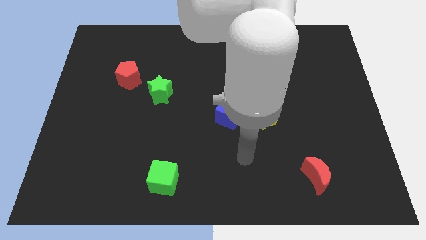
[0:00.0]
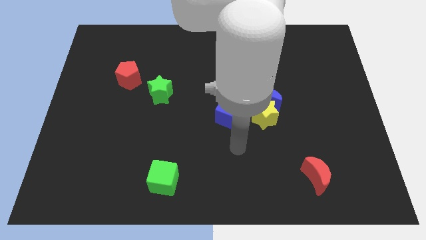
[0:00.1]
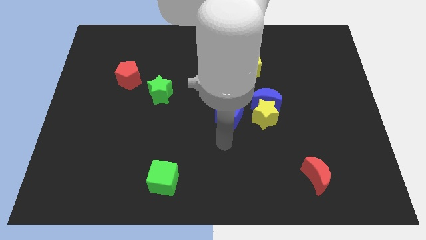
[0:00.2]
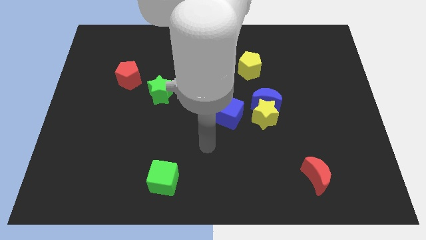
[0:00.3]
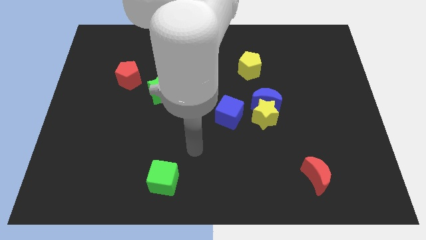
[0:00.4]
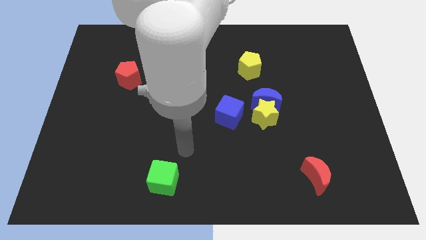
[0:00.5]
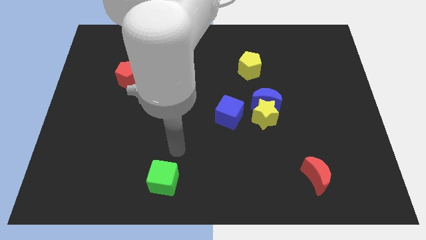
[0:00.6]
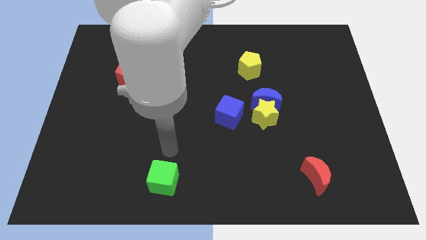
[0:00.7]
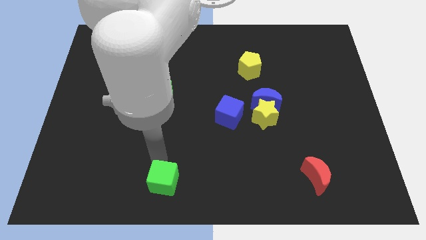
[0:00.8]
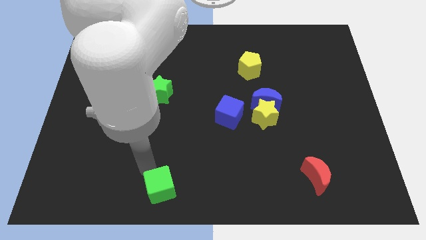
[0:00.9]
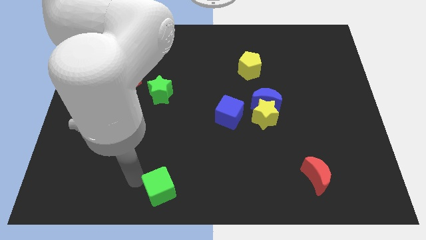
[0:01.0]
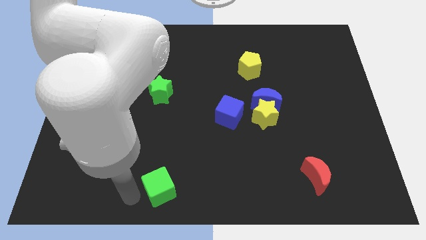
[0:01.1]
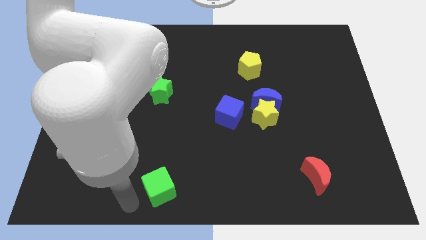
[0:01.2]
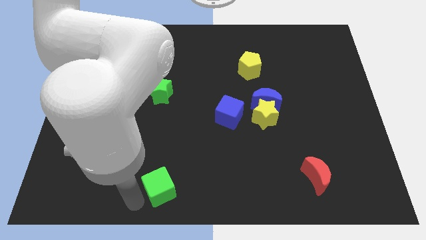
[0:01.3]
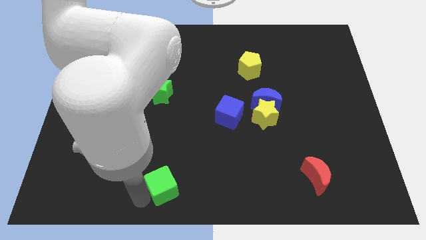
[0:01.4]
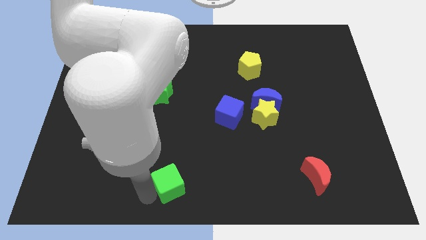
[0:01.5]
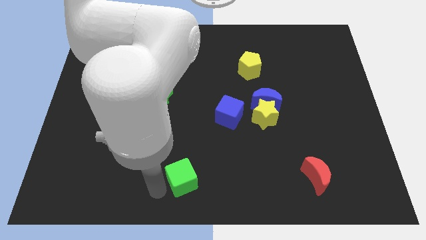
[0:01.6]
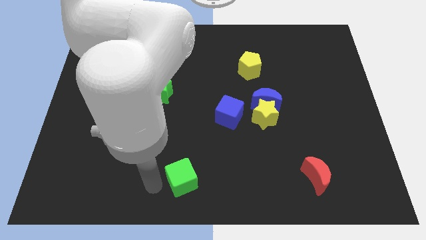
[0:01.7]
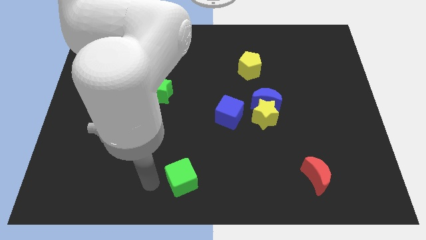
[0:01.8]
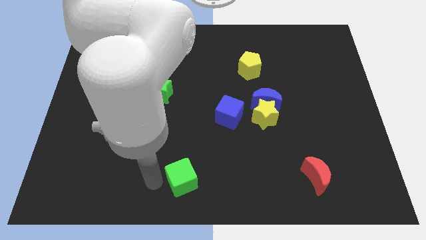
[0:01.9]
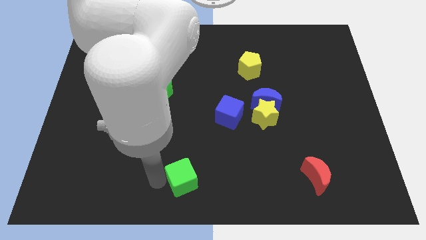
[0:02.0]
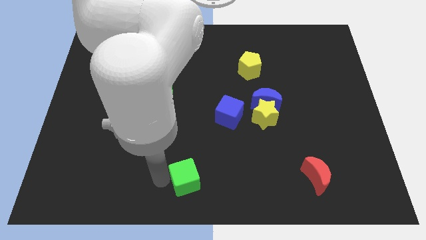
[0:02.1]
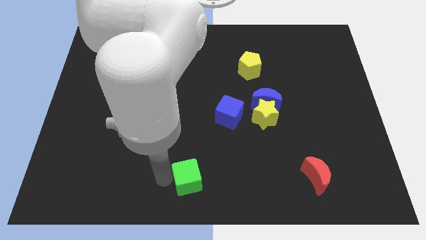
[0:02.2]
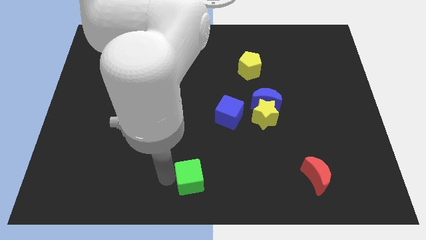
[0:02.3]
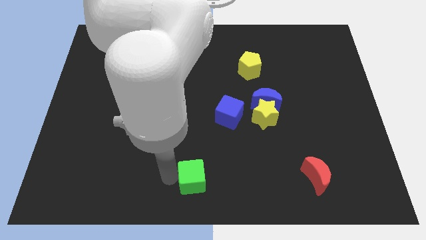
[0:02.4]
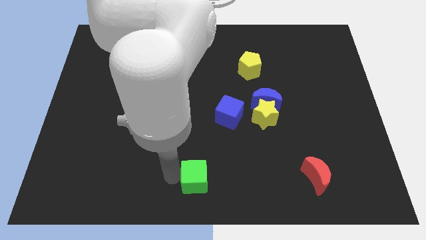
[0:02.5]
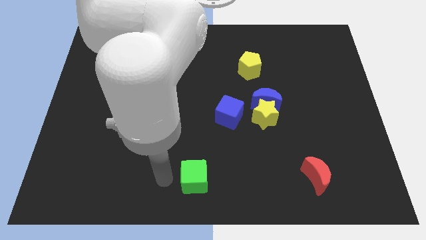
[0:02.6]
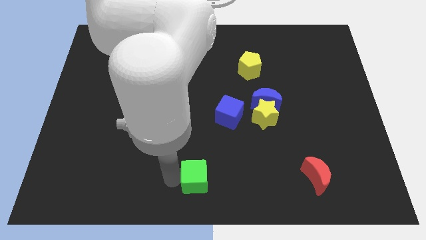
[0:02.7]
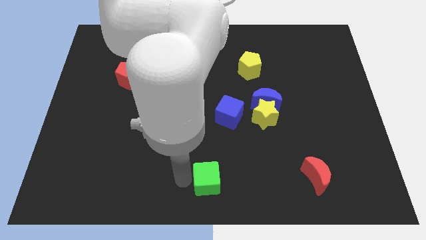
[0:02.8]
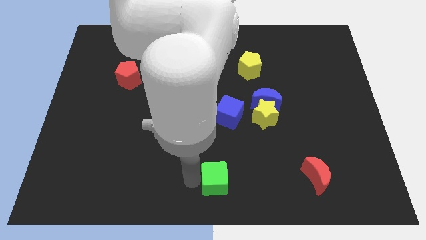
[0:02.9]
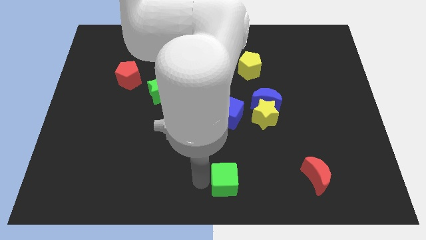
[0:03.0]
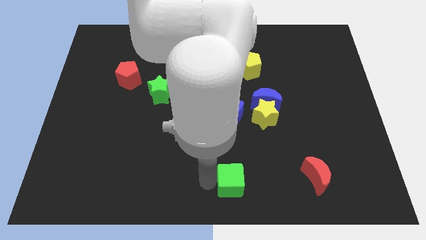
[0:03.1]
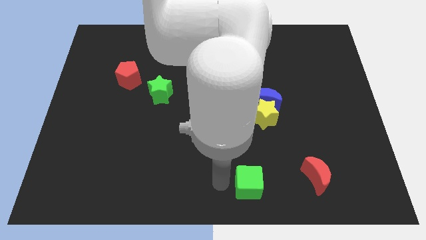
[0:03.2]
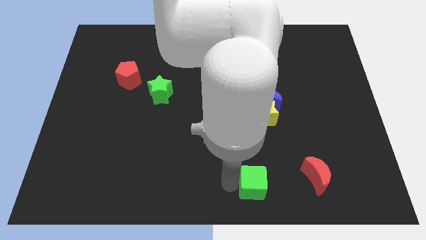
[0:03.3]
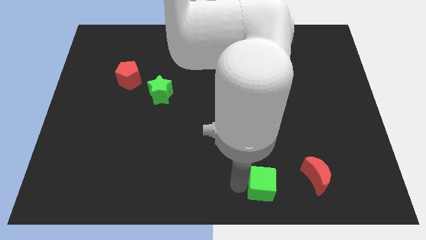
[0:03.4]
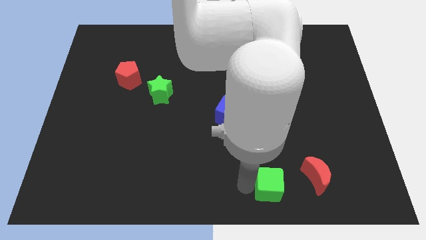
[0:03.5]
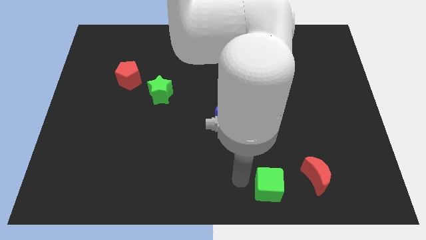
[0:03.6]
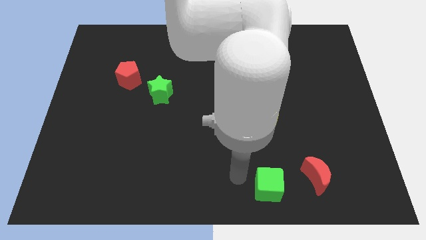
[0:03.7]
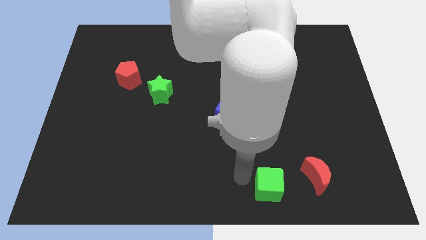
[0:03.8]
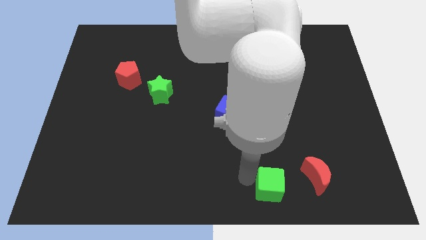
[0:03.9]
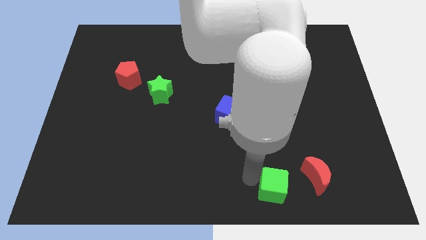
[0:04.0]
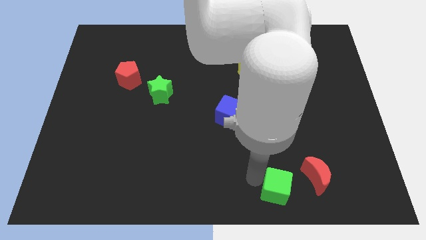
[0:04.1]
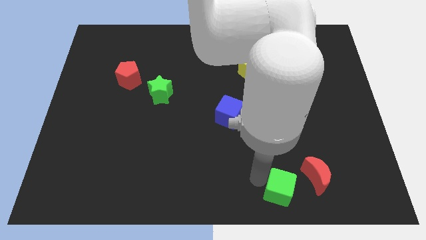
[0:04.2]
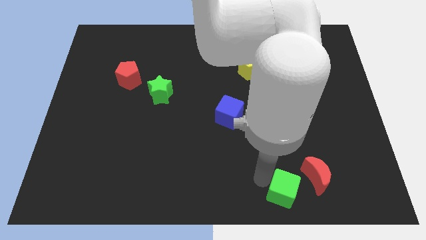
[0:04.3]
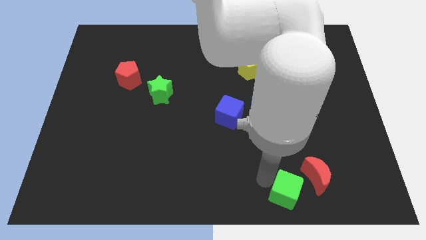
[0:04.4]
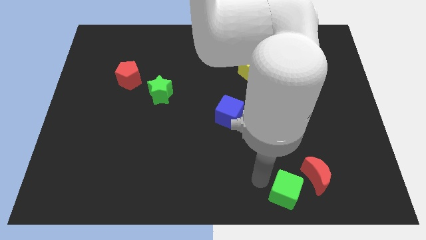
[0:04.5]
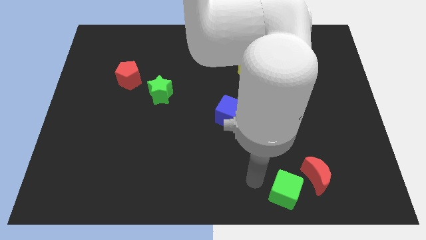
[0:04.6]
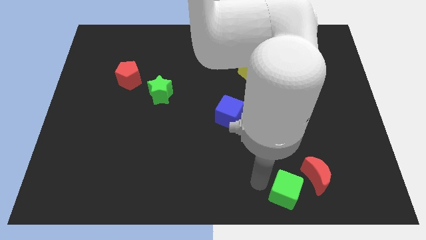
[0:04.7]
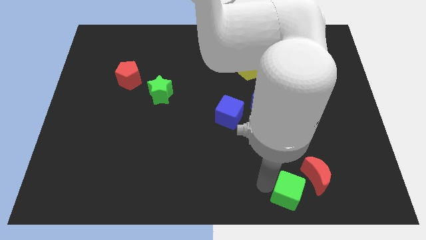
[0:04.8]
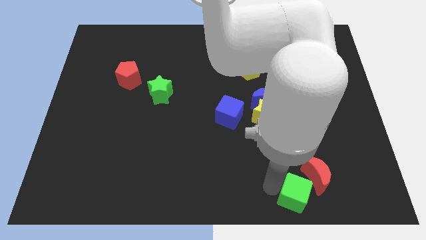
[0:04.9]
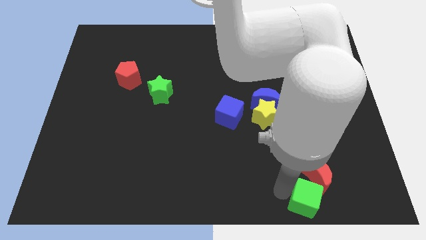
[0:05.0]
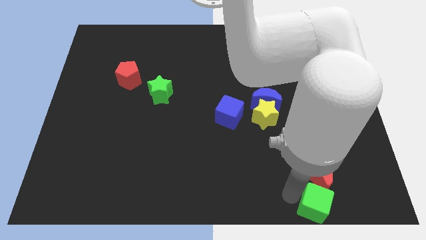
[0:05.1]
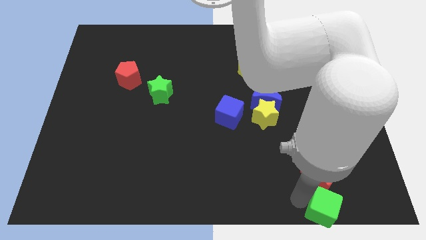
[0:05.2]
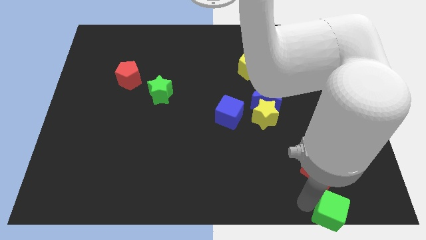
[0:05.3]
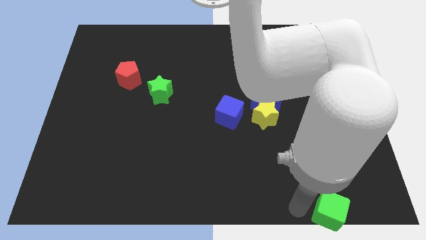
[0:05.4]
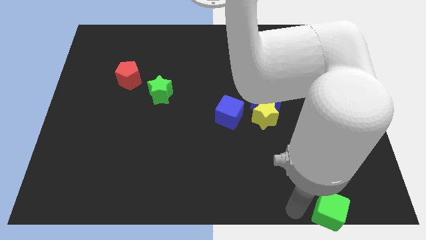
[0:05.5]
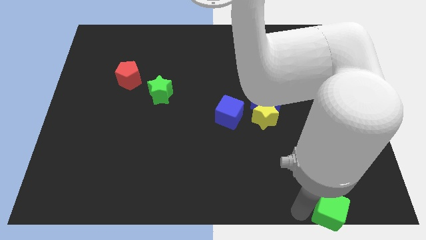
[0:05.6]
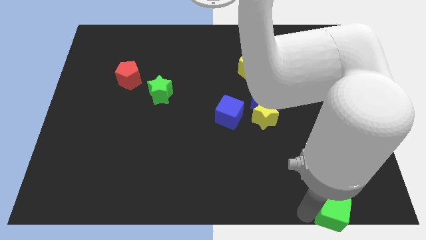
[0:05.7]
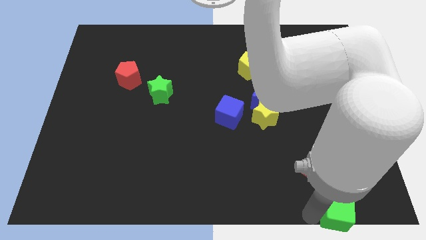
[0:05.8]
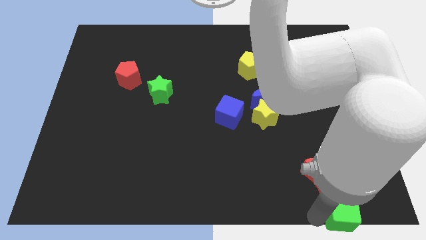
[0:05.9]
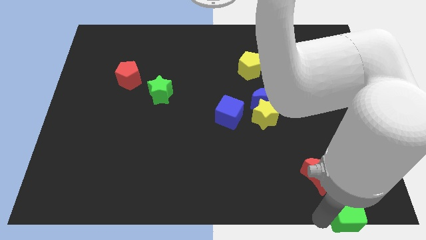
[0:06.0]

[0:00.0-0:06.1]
move the green cube to the bottom right corner
